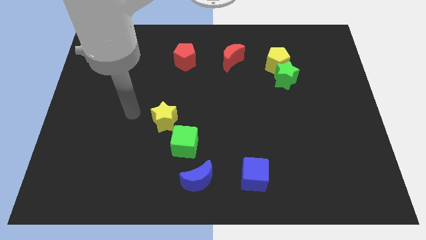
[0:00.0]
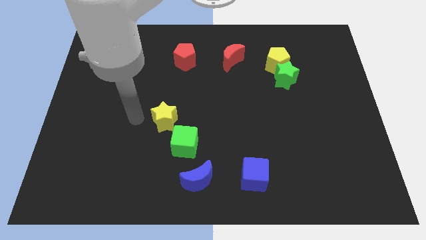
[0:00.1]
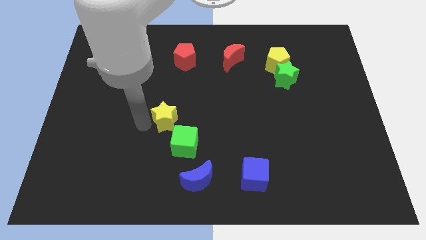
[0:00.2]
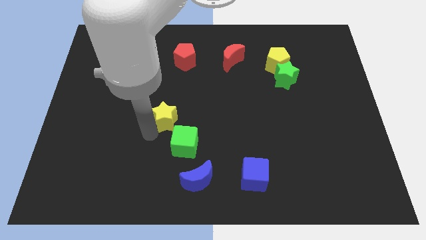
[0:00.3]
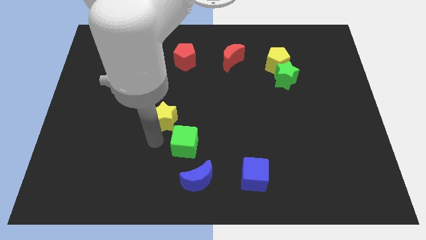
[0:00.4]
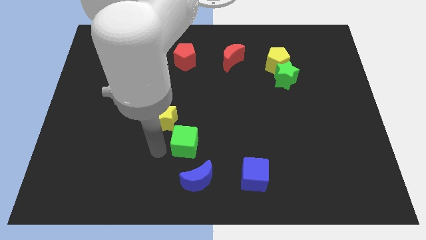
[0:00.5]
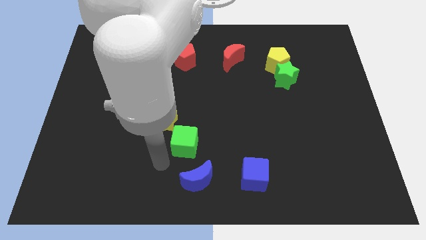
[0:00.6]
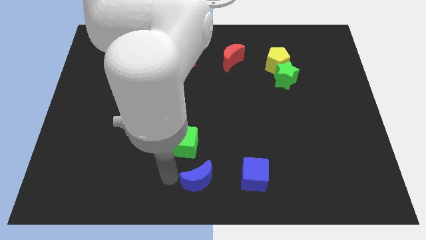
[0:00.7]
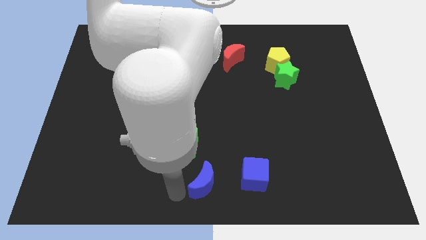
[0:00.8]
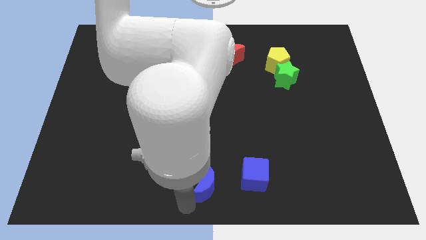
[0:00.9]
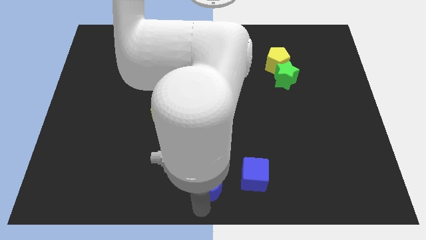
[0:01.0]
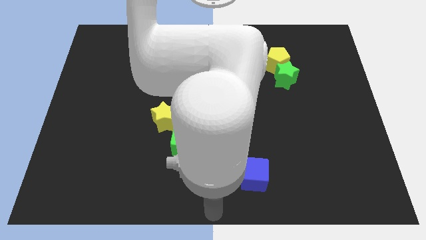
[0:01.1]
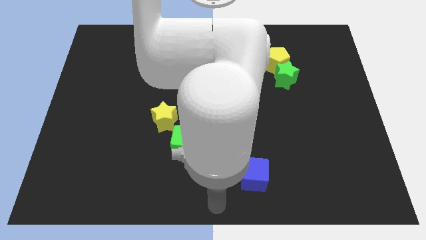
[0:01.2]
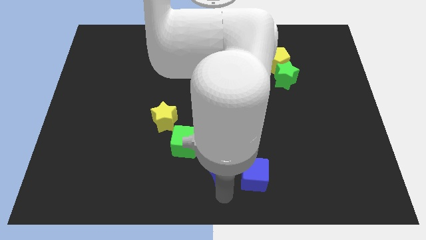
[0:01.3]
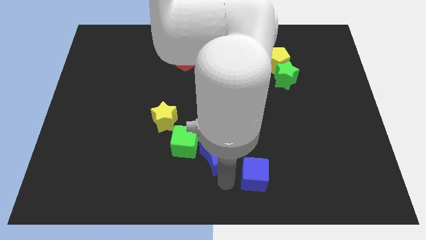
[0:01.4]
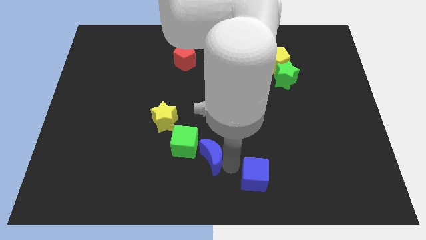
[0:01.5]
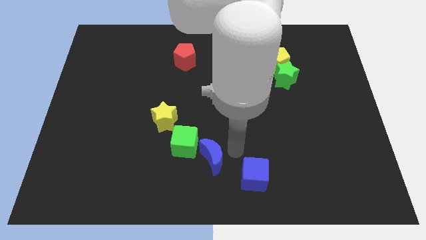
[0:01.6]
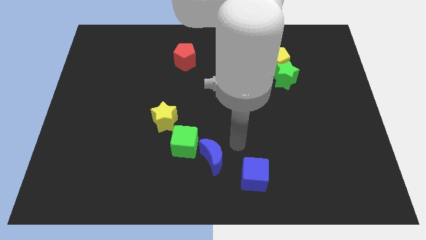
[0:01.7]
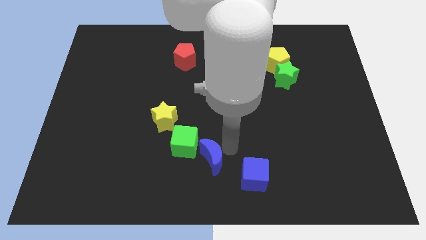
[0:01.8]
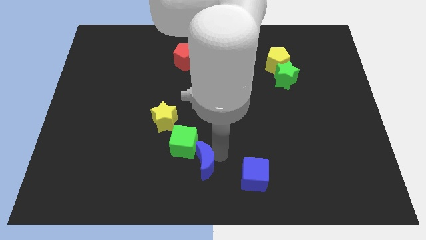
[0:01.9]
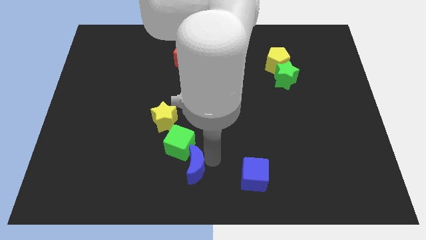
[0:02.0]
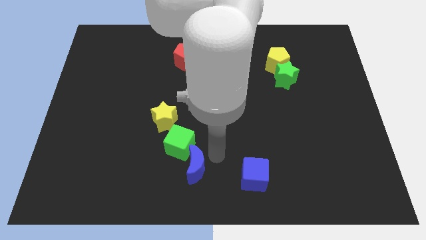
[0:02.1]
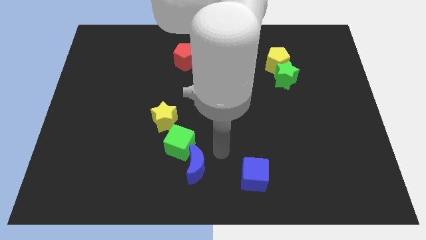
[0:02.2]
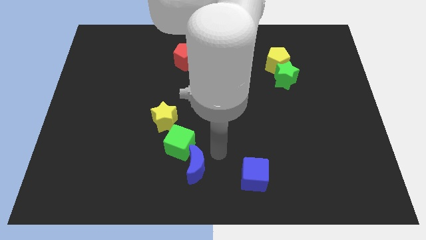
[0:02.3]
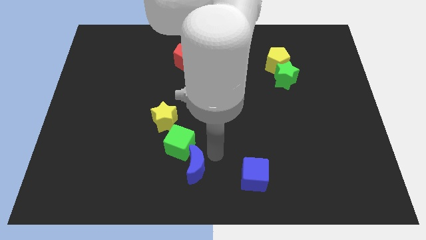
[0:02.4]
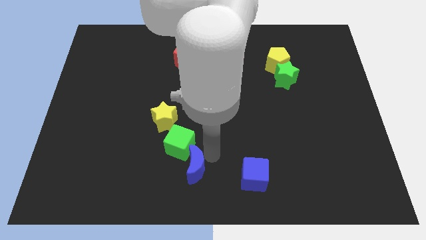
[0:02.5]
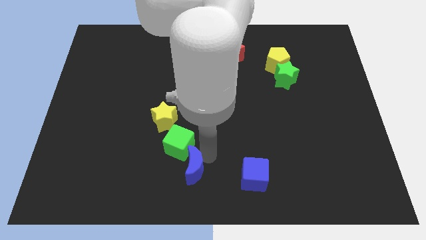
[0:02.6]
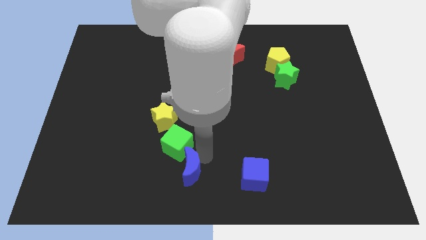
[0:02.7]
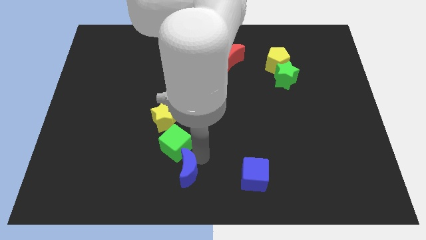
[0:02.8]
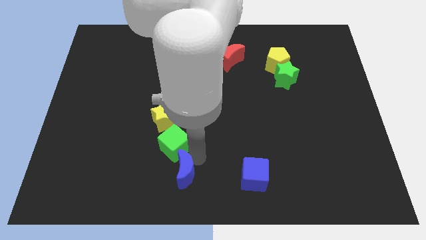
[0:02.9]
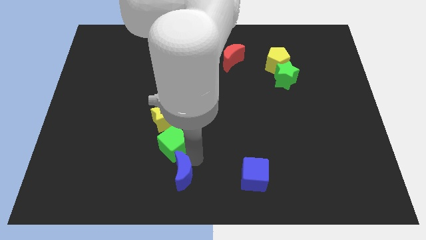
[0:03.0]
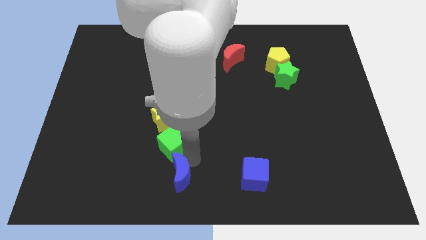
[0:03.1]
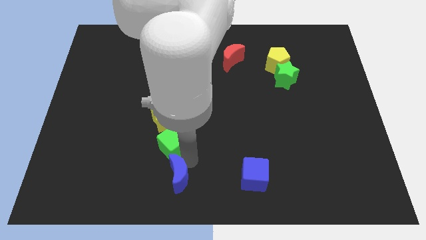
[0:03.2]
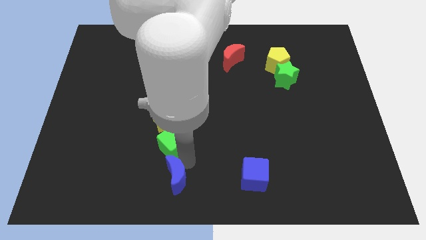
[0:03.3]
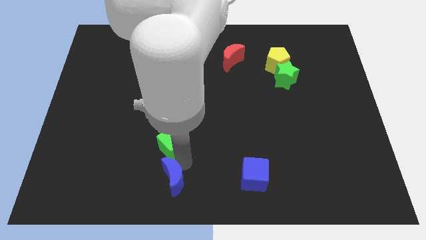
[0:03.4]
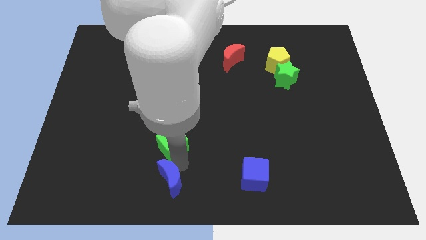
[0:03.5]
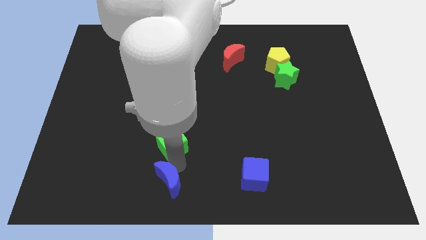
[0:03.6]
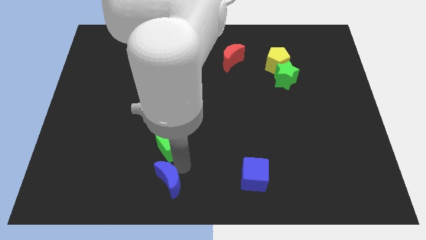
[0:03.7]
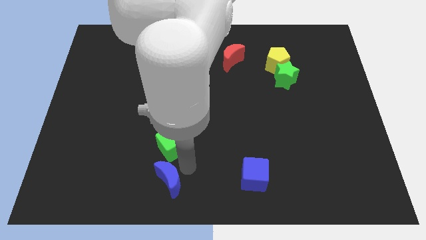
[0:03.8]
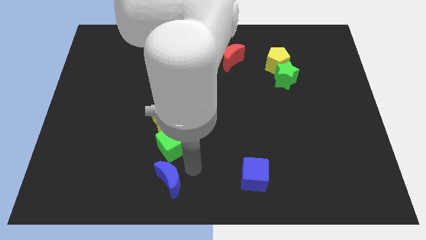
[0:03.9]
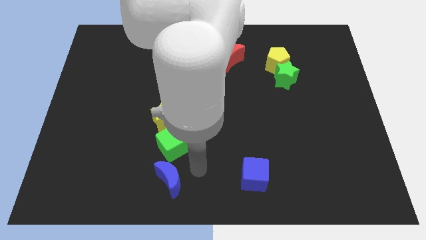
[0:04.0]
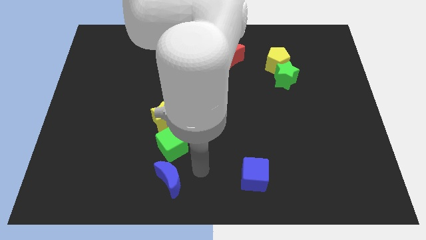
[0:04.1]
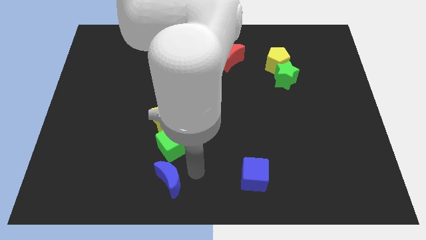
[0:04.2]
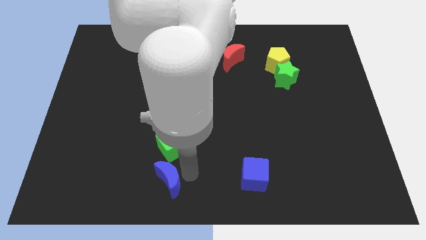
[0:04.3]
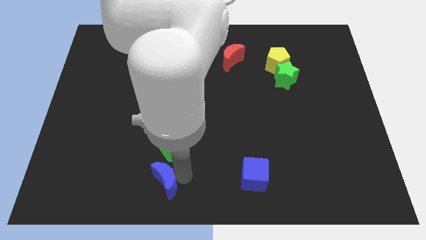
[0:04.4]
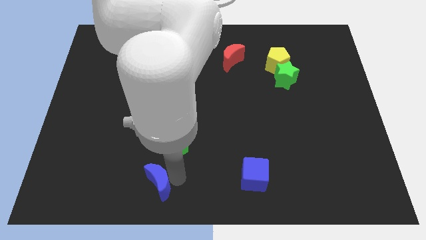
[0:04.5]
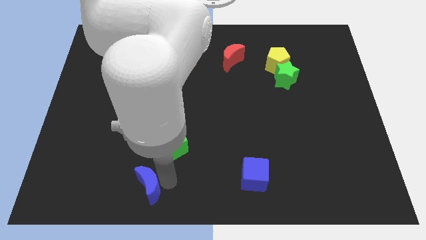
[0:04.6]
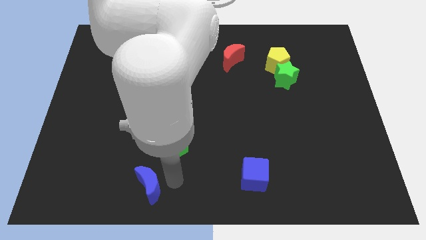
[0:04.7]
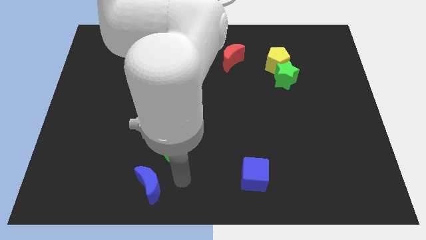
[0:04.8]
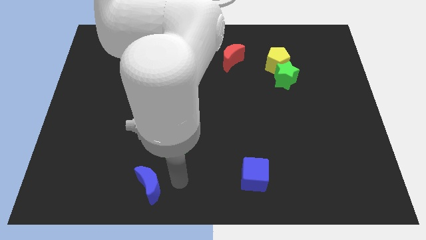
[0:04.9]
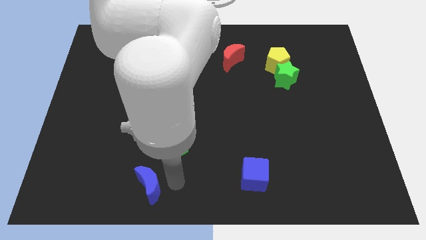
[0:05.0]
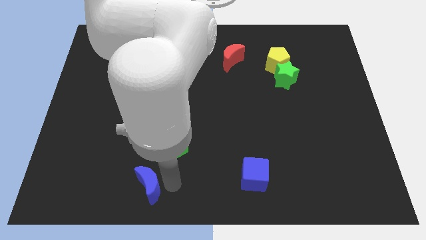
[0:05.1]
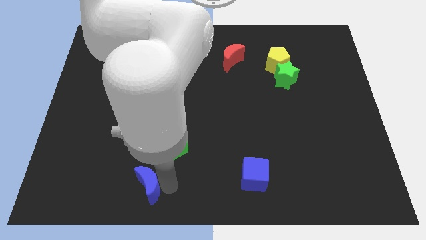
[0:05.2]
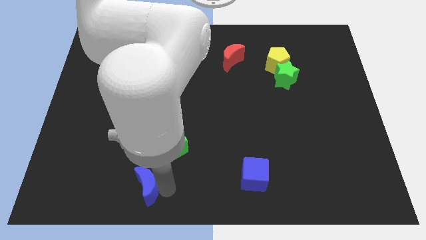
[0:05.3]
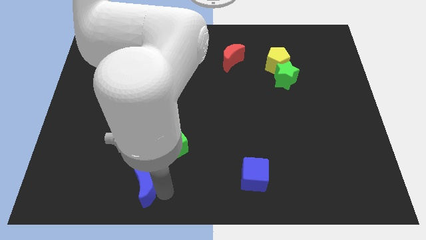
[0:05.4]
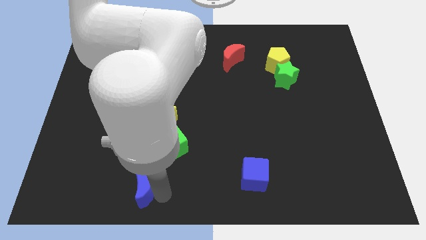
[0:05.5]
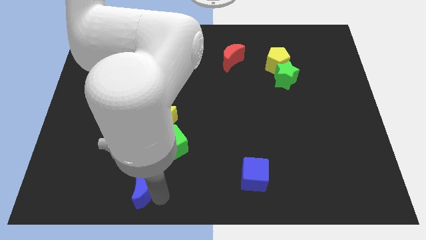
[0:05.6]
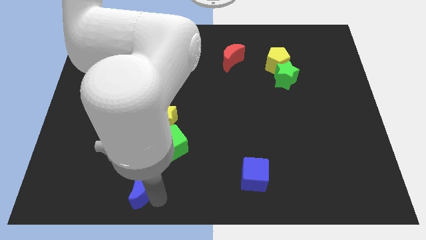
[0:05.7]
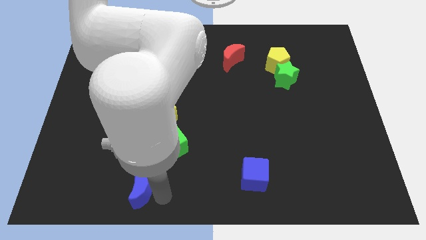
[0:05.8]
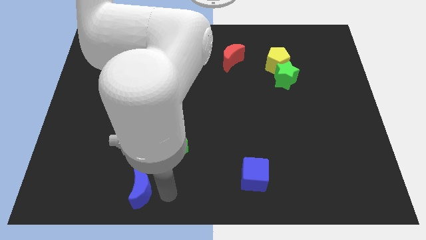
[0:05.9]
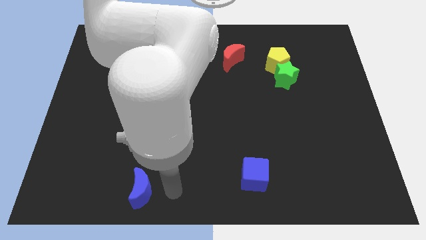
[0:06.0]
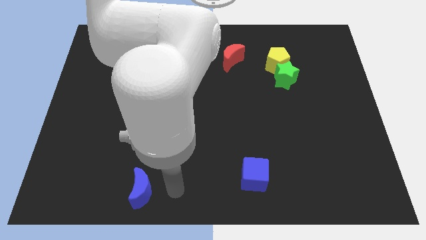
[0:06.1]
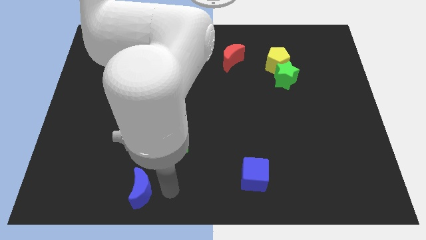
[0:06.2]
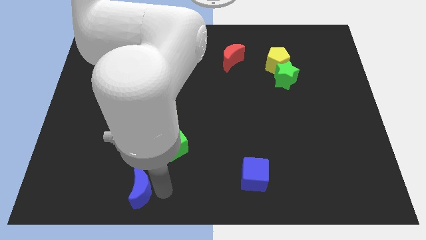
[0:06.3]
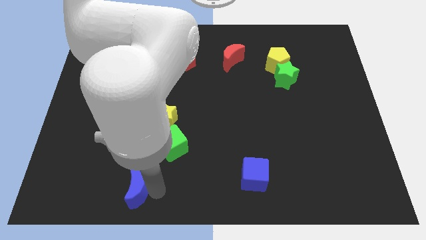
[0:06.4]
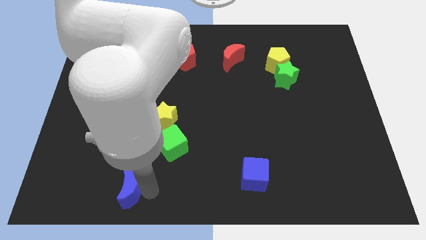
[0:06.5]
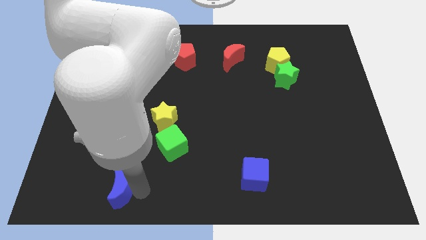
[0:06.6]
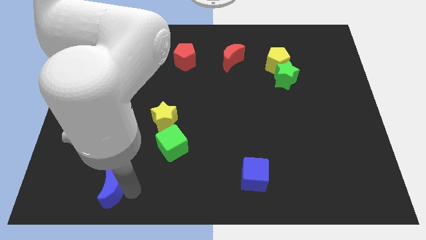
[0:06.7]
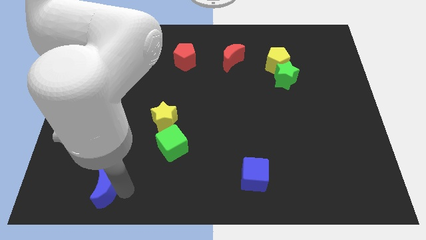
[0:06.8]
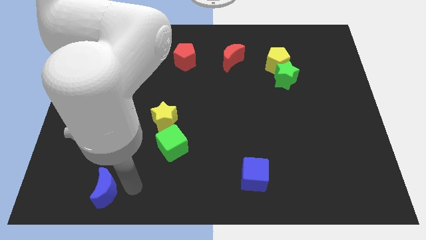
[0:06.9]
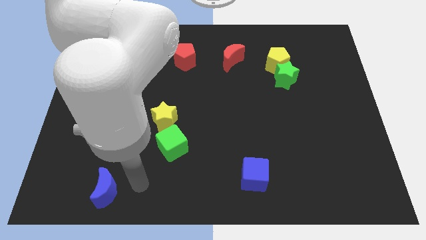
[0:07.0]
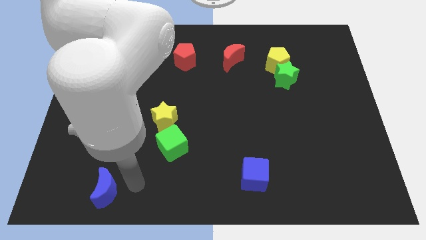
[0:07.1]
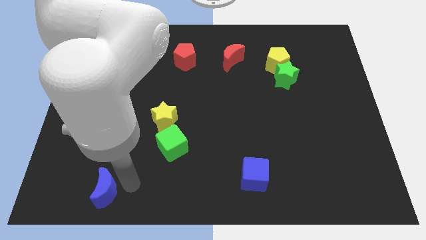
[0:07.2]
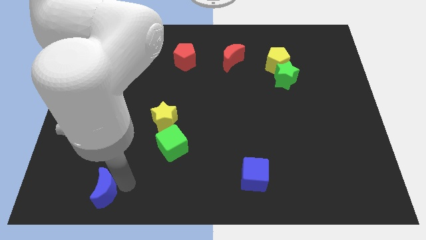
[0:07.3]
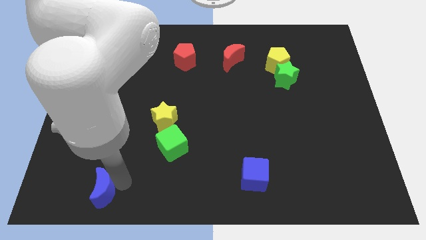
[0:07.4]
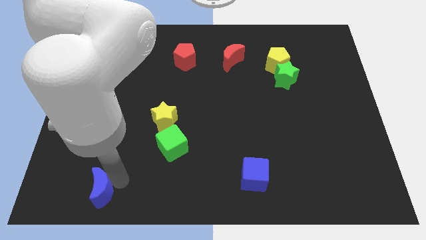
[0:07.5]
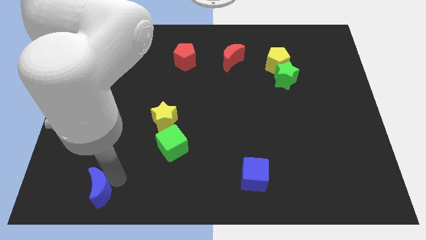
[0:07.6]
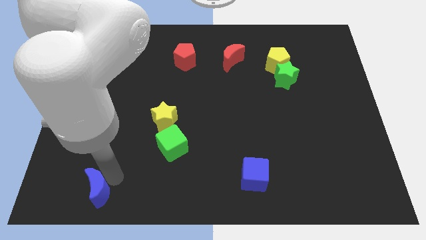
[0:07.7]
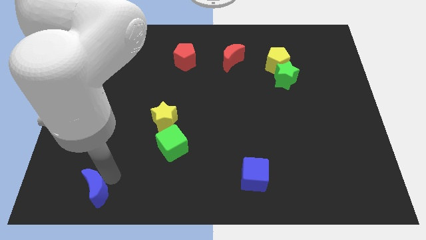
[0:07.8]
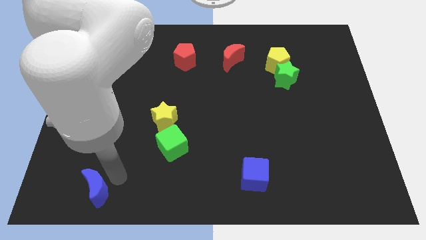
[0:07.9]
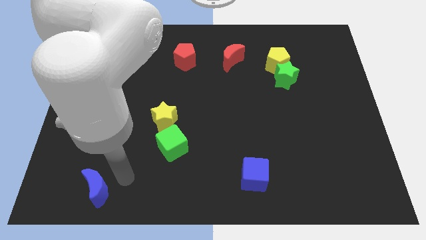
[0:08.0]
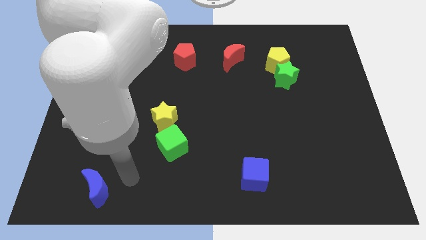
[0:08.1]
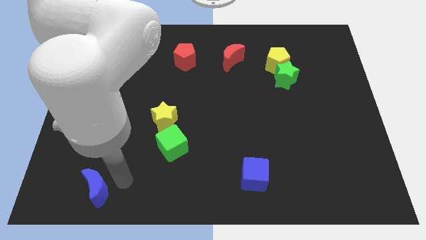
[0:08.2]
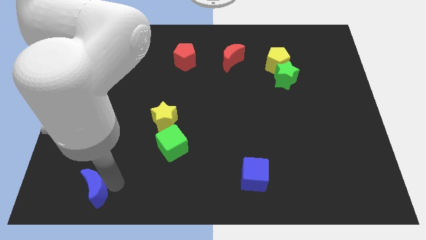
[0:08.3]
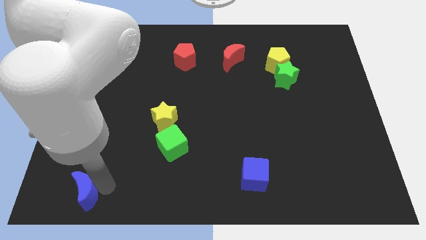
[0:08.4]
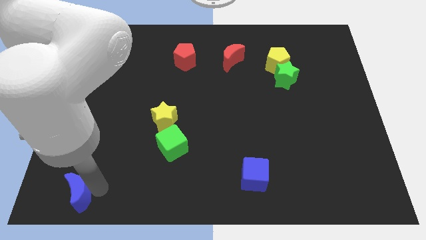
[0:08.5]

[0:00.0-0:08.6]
move the blue moon to the bottom left
